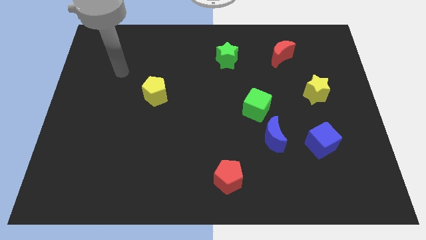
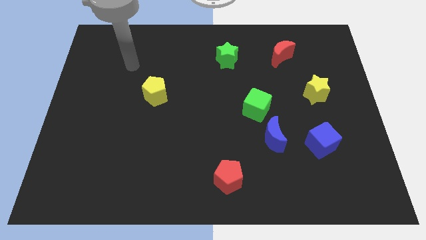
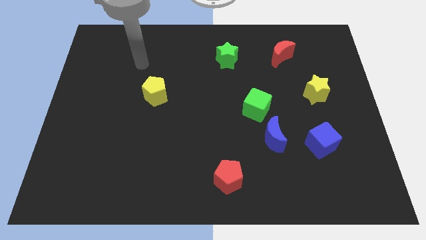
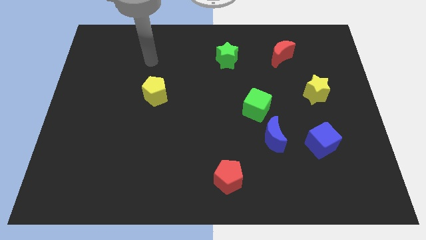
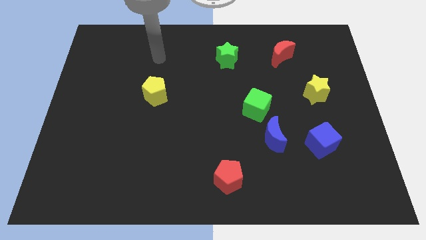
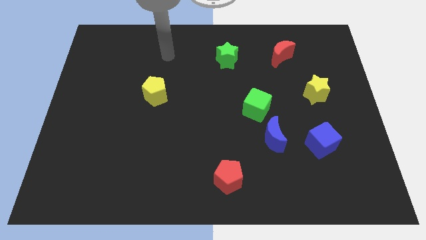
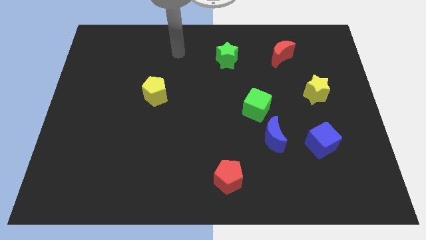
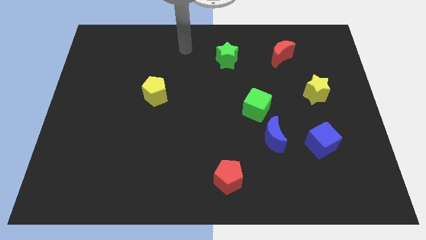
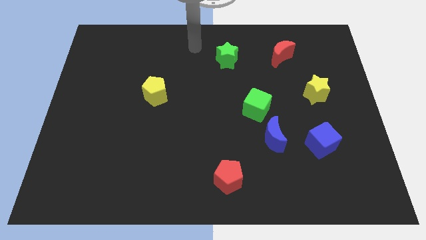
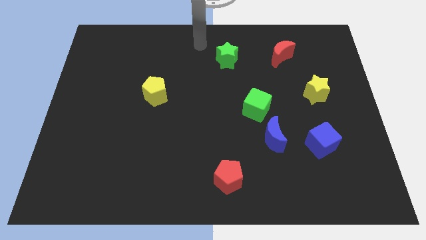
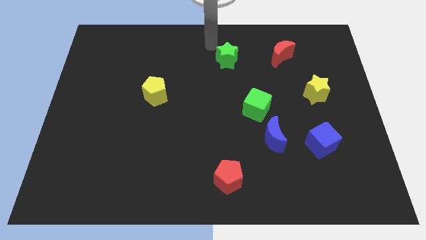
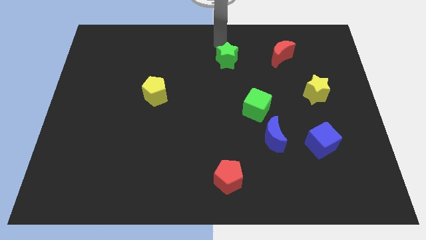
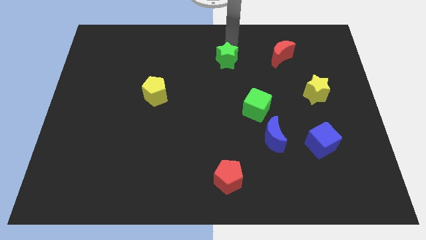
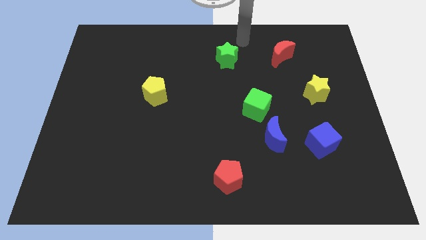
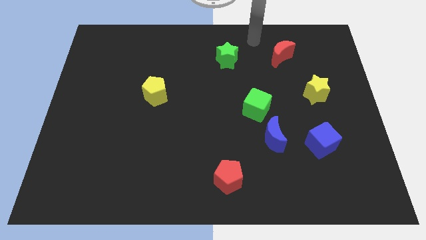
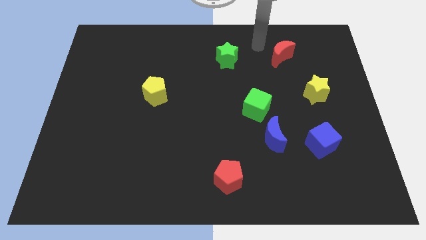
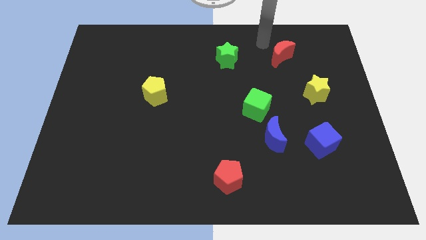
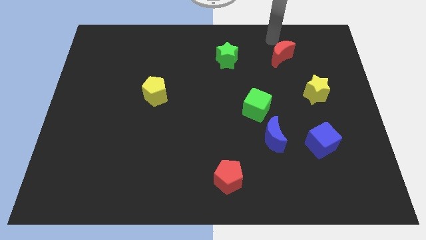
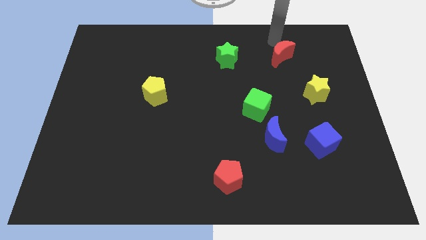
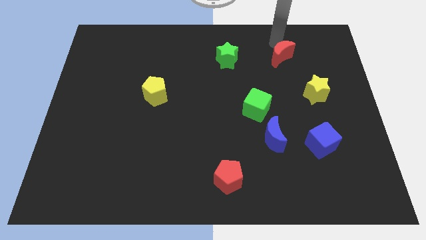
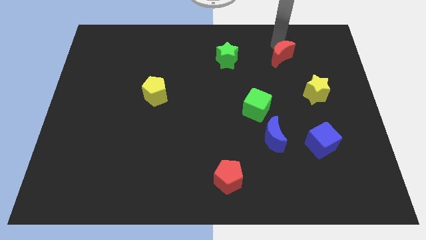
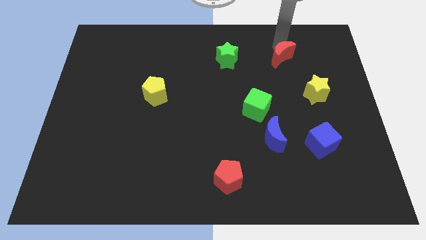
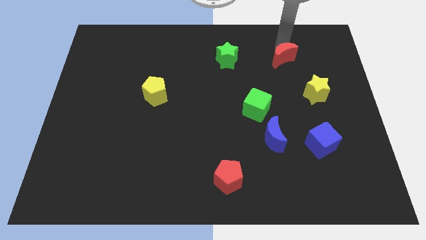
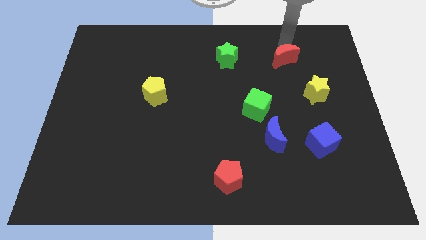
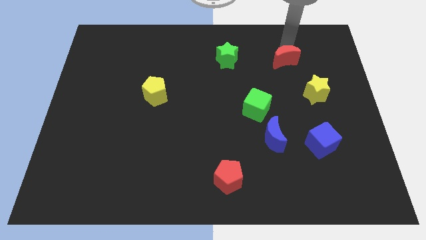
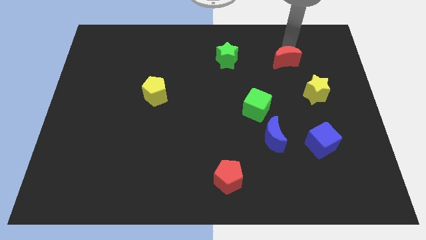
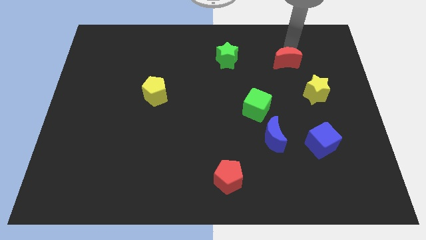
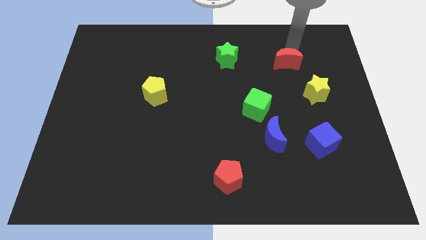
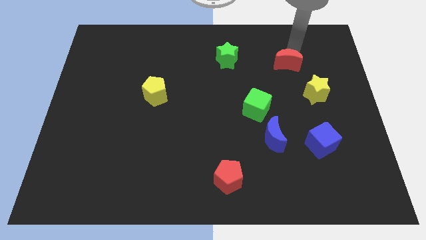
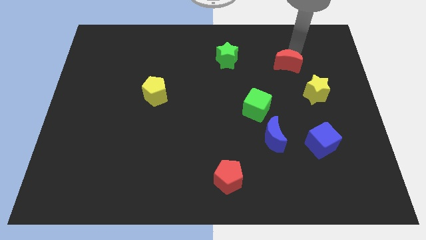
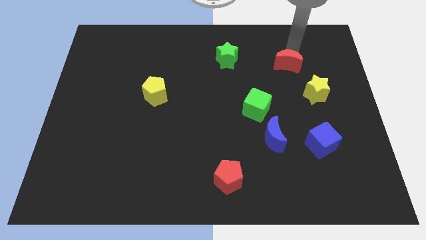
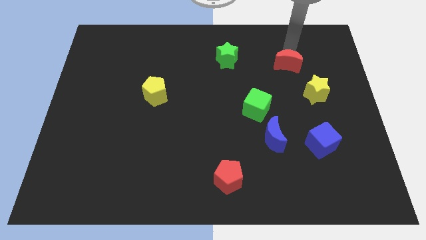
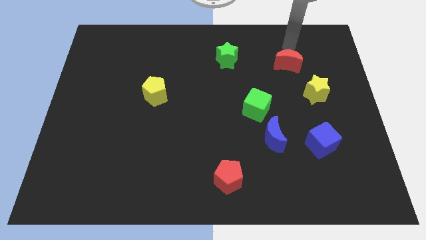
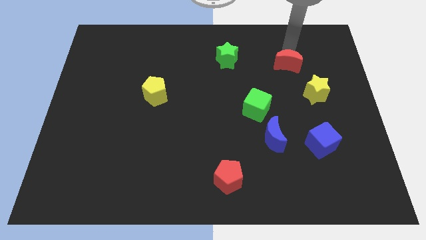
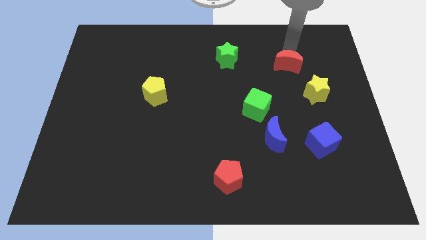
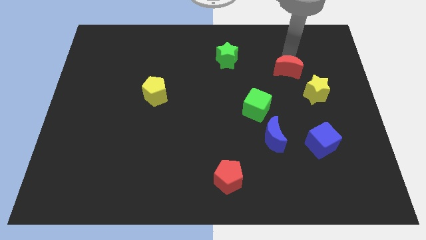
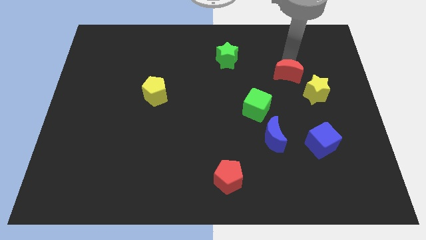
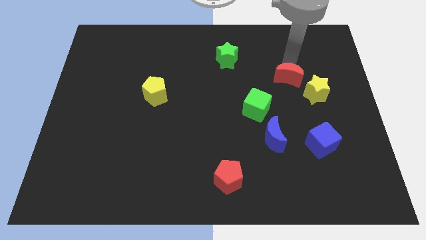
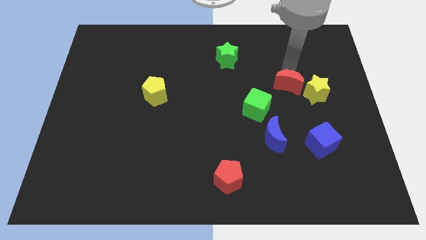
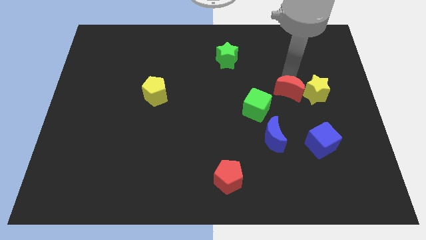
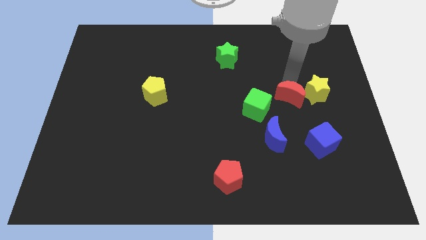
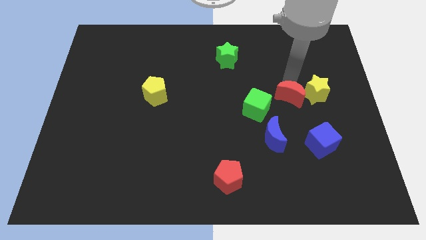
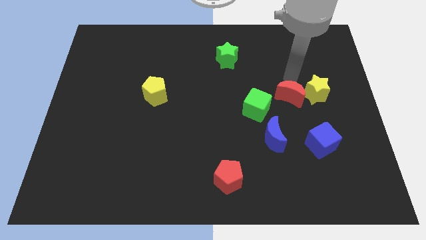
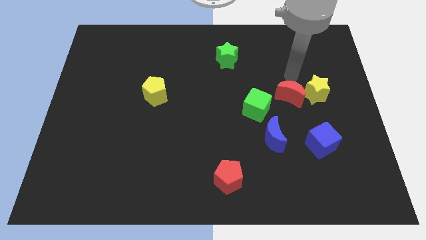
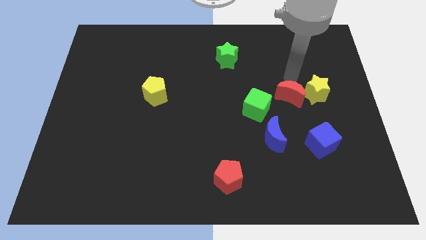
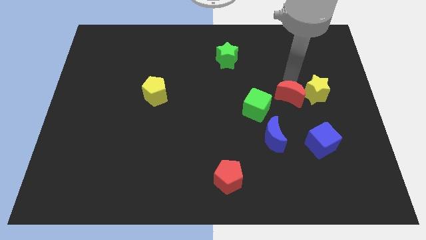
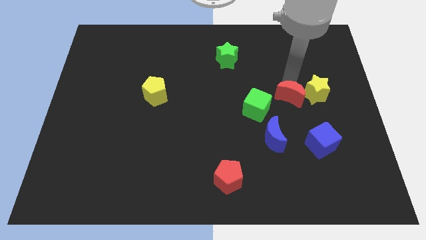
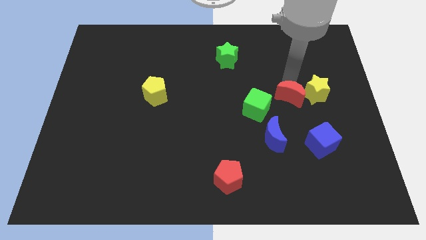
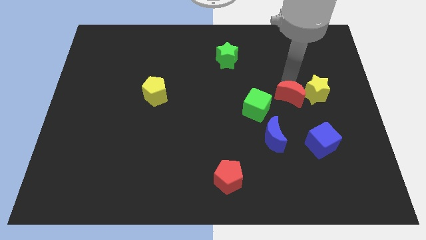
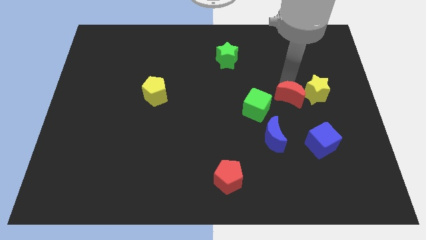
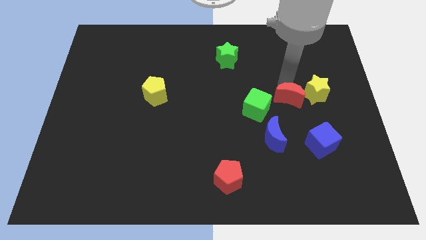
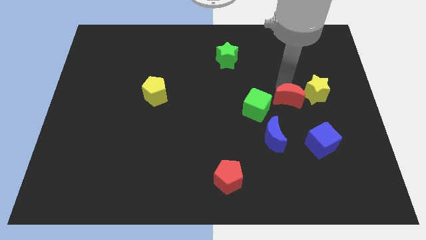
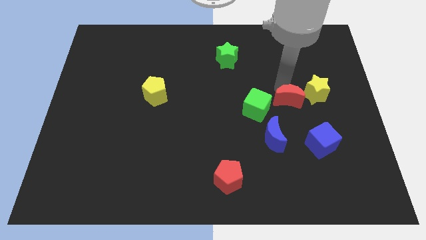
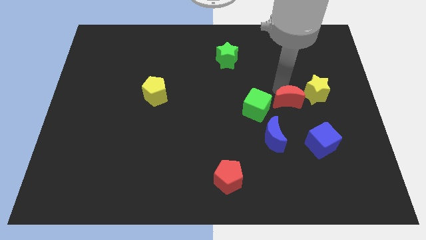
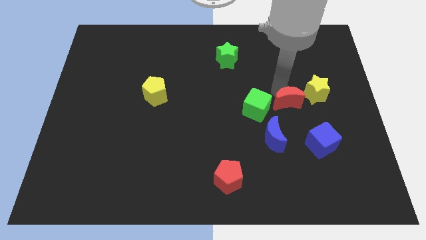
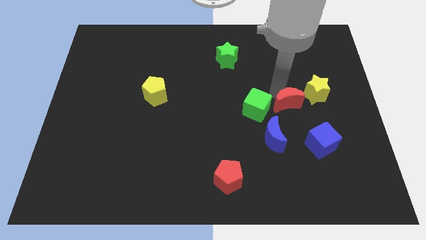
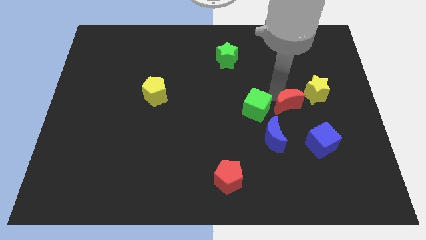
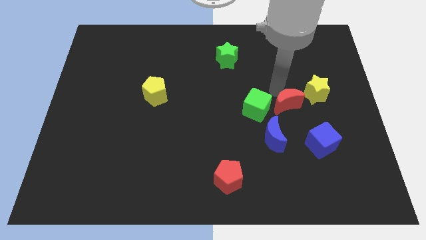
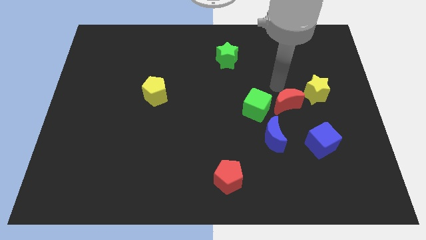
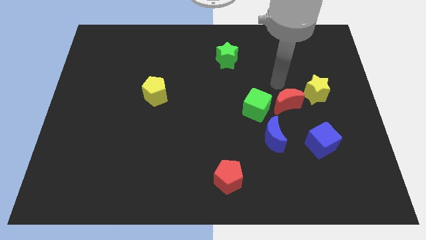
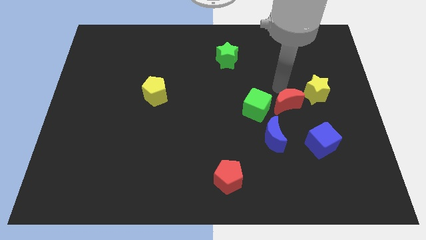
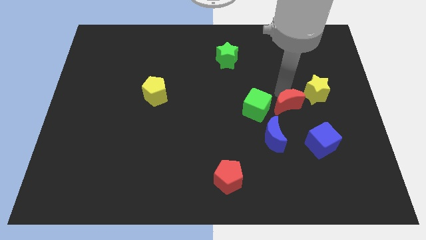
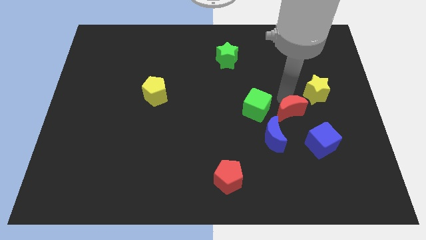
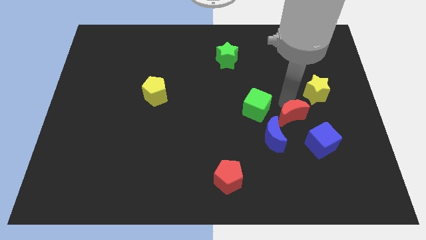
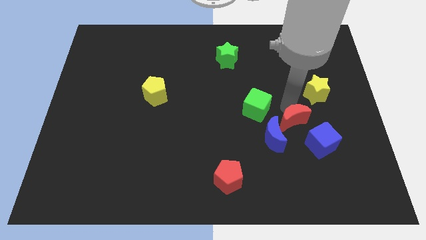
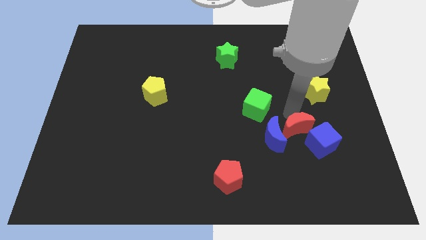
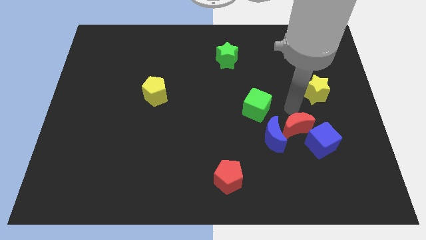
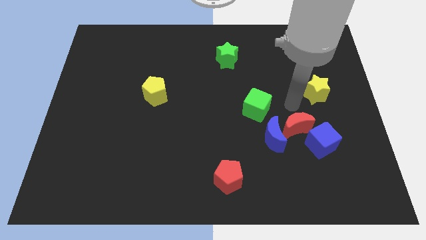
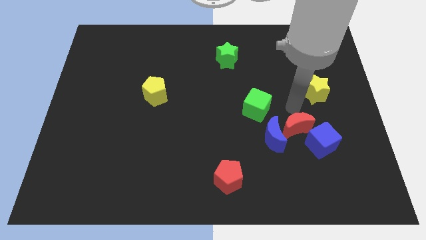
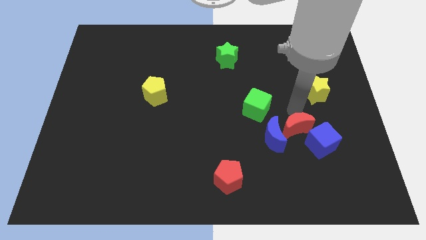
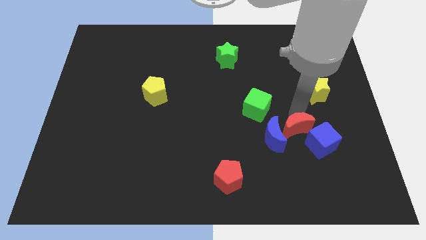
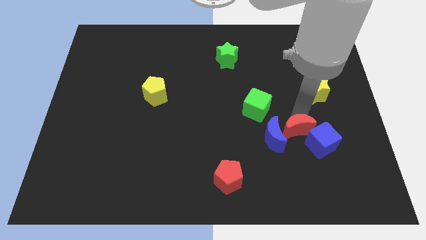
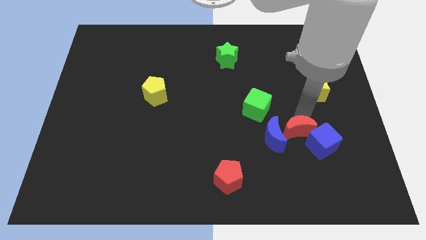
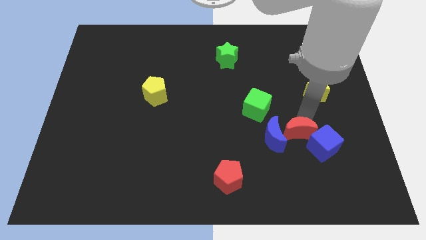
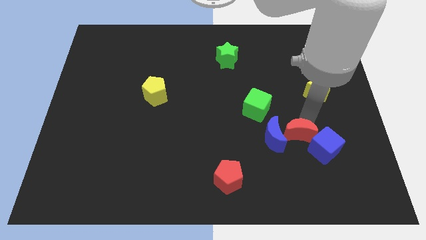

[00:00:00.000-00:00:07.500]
slide the red moon diagonally down and to the right of the blue moon
